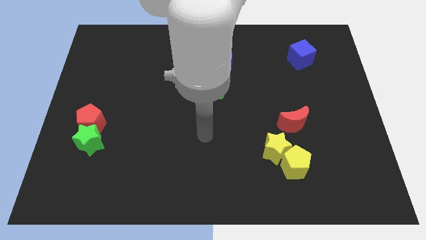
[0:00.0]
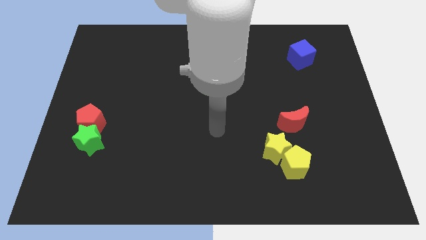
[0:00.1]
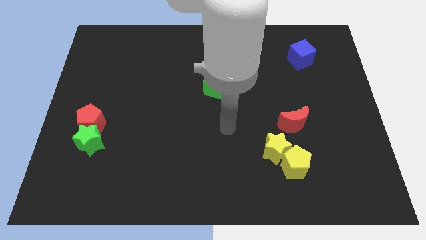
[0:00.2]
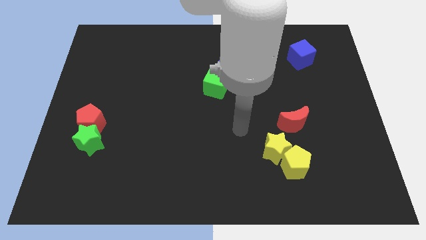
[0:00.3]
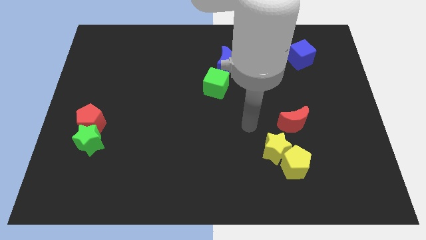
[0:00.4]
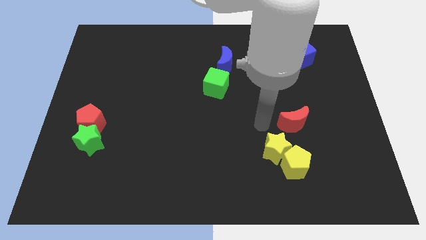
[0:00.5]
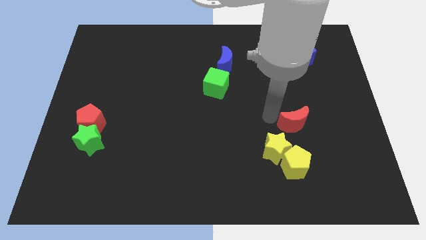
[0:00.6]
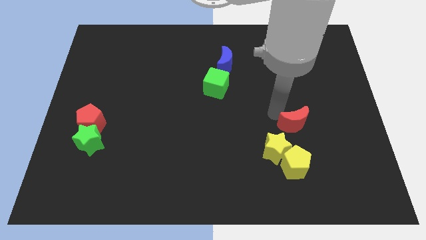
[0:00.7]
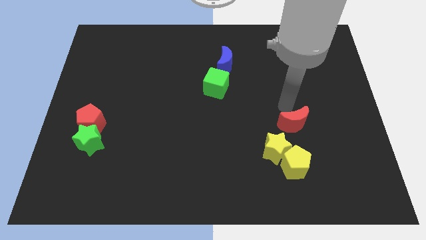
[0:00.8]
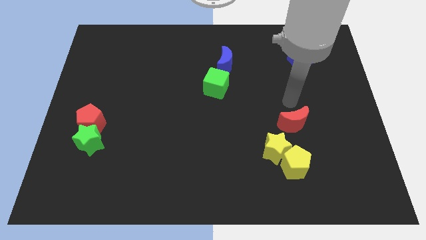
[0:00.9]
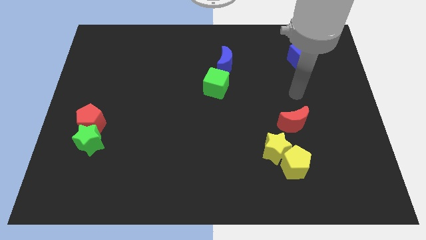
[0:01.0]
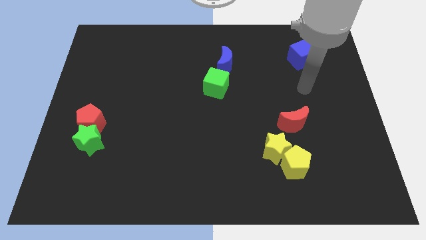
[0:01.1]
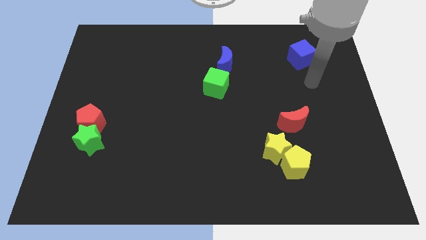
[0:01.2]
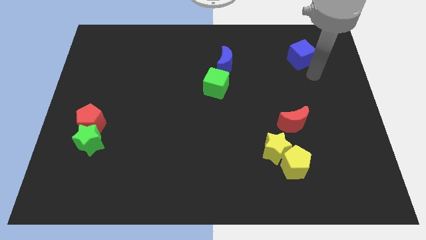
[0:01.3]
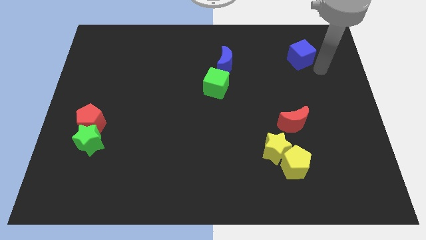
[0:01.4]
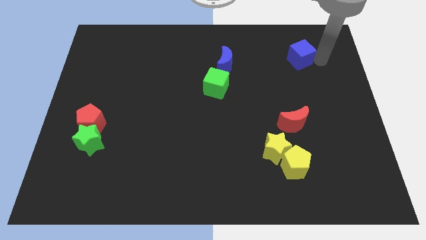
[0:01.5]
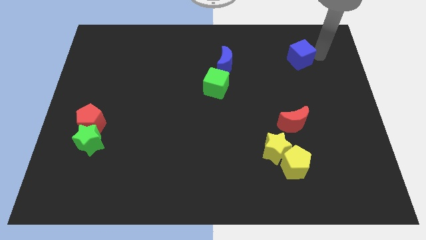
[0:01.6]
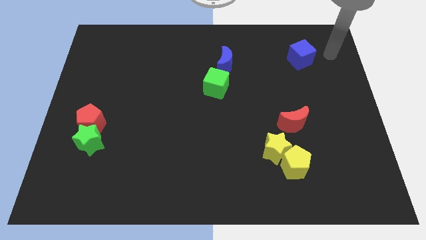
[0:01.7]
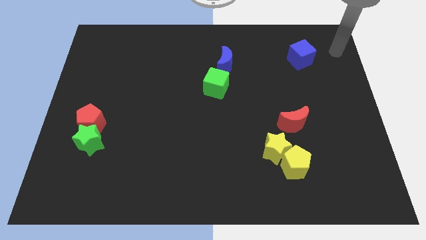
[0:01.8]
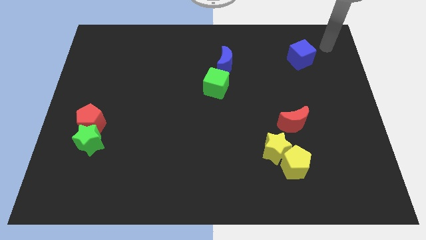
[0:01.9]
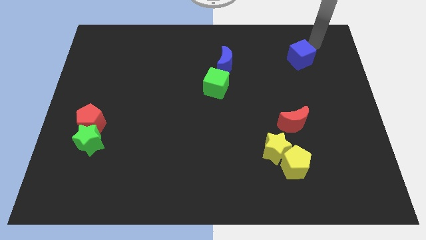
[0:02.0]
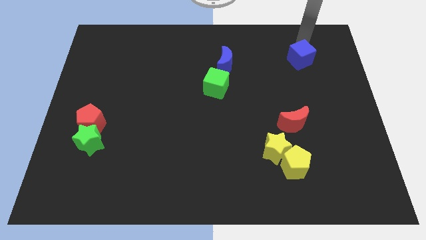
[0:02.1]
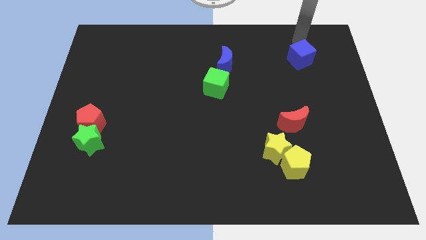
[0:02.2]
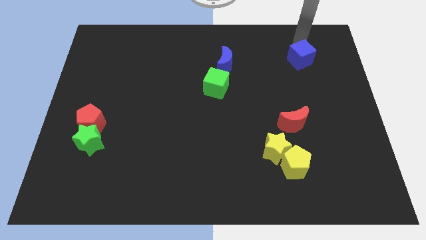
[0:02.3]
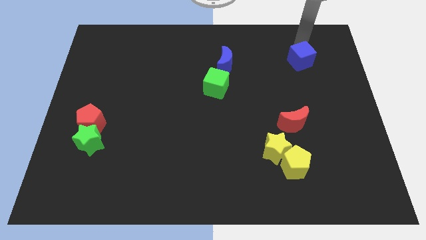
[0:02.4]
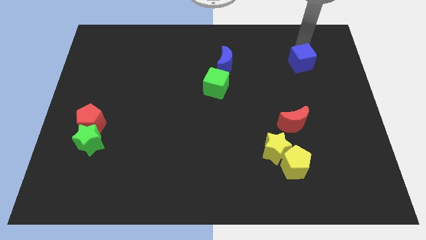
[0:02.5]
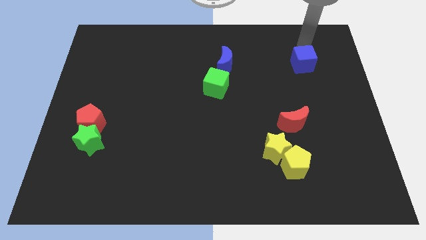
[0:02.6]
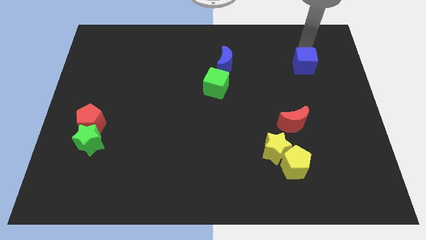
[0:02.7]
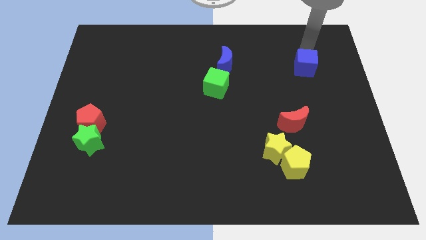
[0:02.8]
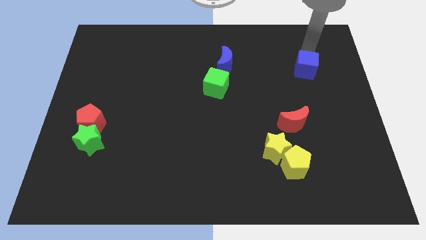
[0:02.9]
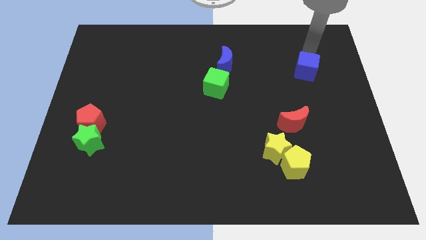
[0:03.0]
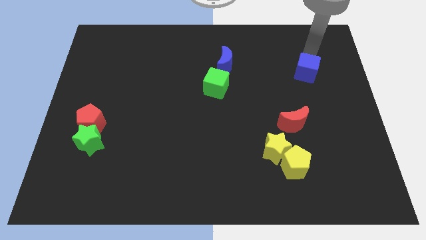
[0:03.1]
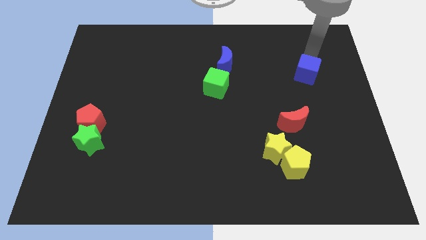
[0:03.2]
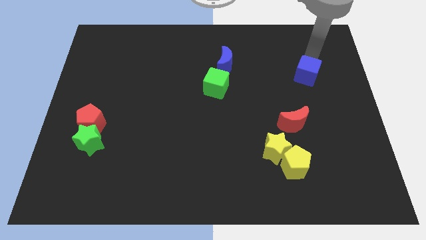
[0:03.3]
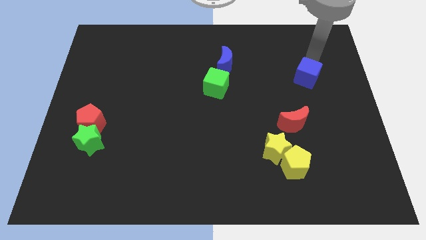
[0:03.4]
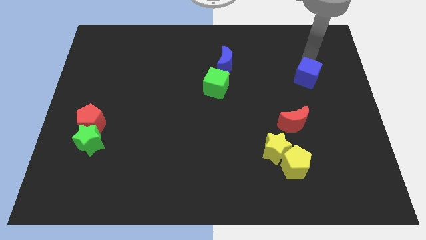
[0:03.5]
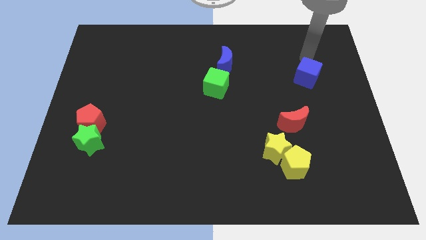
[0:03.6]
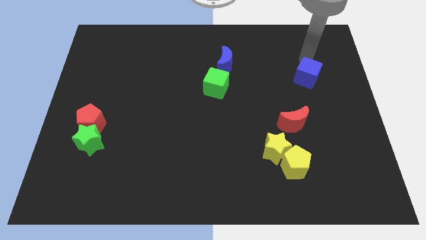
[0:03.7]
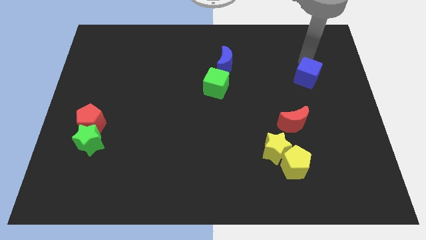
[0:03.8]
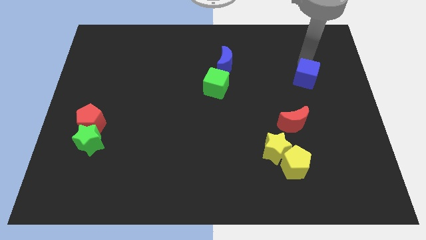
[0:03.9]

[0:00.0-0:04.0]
push the blue cube a little bit downwards

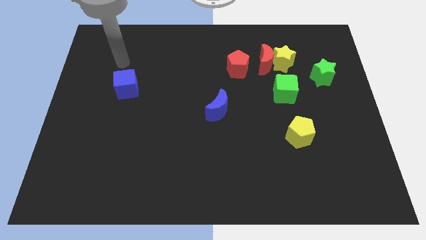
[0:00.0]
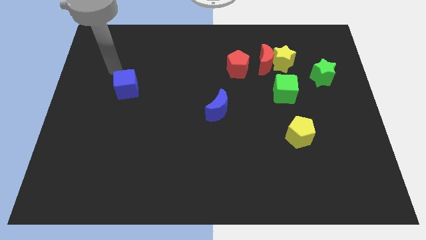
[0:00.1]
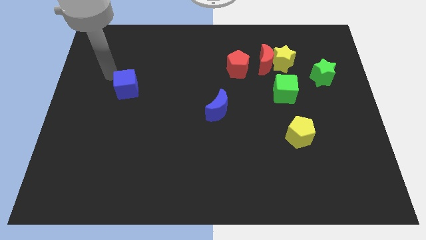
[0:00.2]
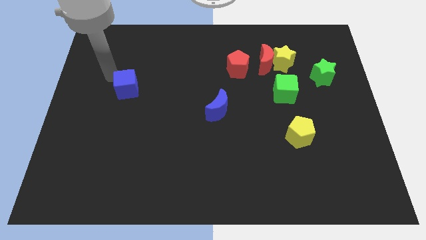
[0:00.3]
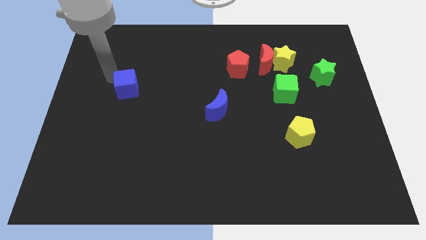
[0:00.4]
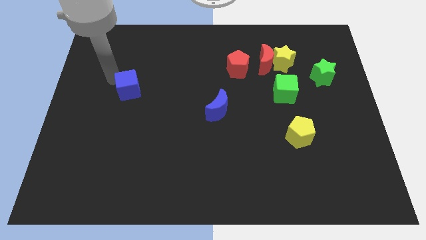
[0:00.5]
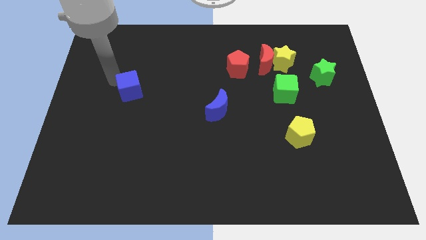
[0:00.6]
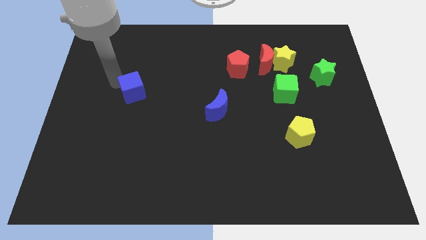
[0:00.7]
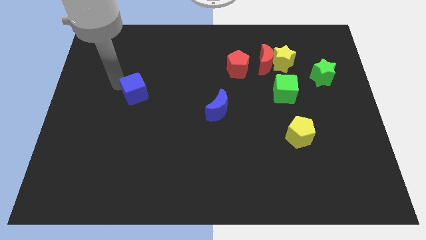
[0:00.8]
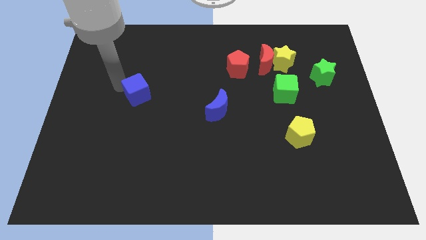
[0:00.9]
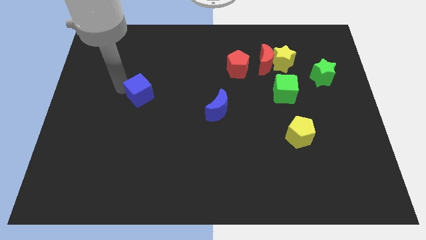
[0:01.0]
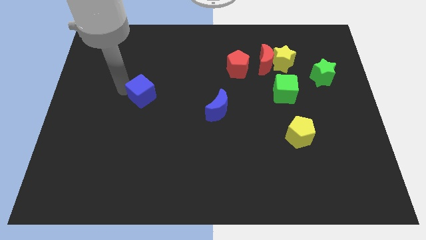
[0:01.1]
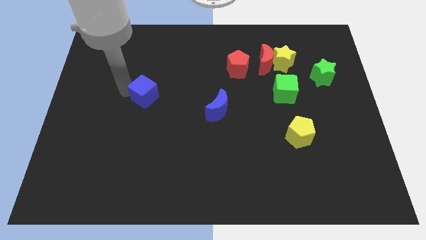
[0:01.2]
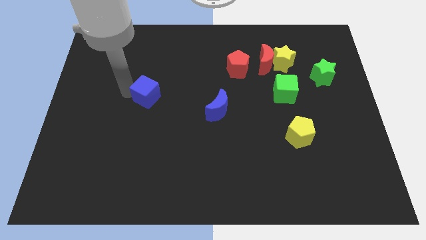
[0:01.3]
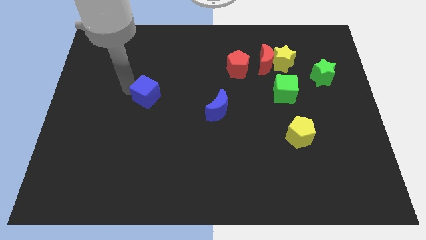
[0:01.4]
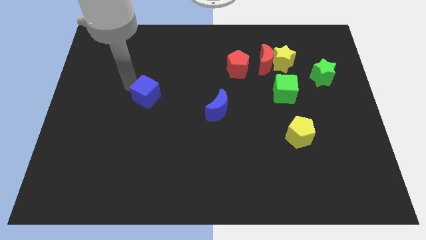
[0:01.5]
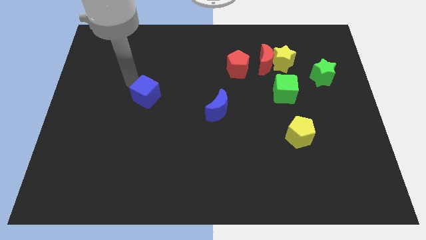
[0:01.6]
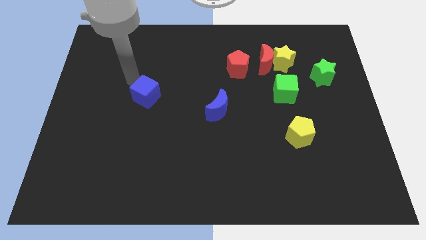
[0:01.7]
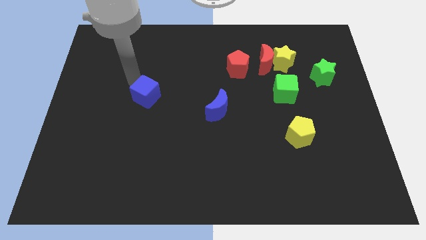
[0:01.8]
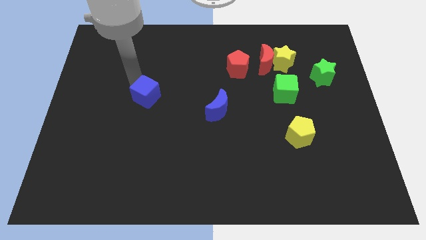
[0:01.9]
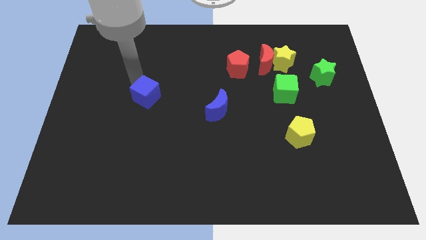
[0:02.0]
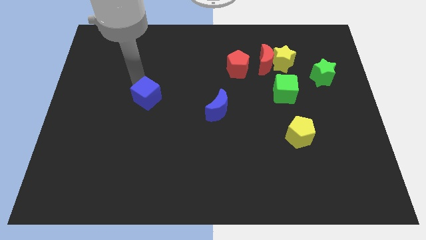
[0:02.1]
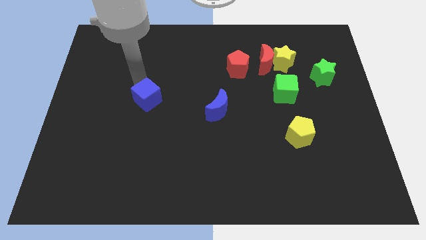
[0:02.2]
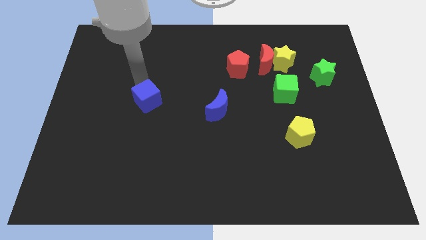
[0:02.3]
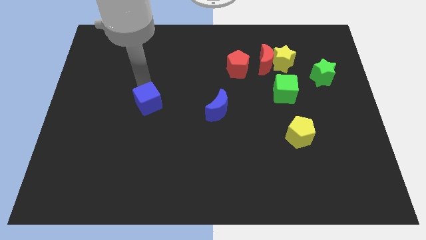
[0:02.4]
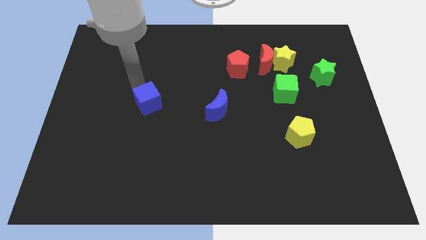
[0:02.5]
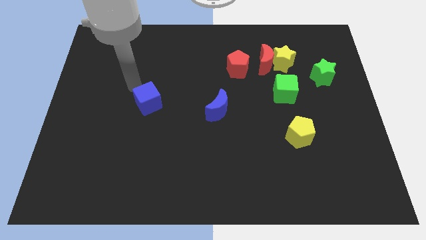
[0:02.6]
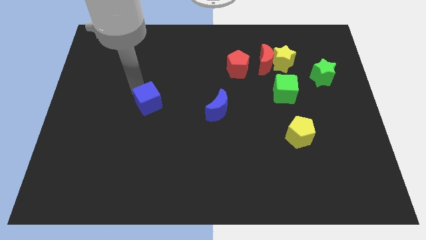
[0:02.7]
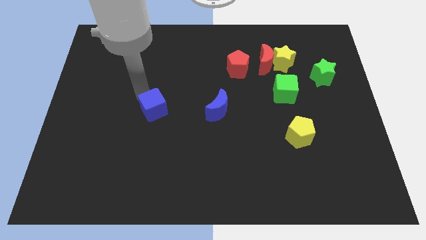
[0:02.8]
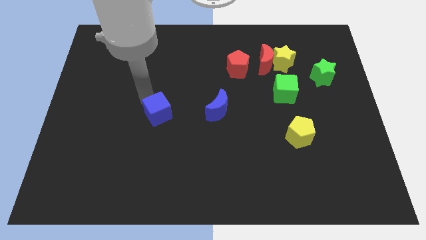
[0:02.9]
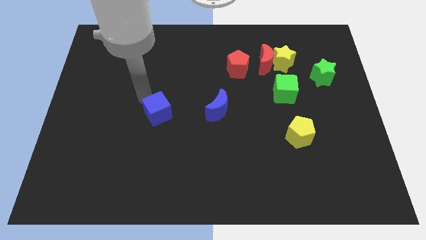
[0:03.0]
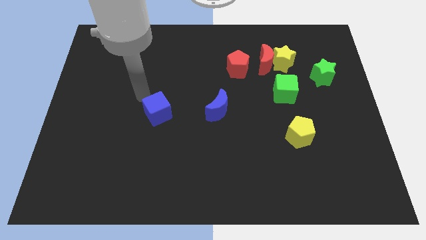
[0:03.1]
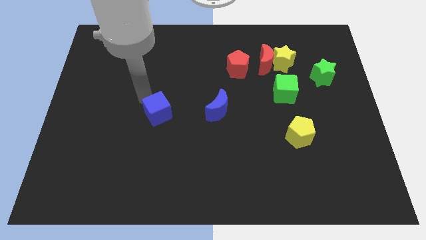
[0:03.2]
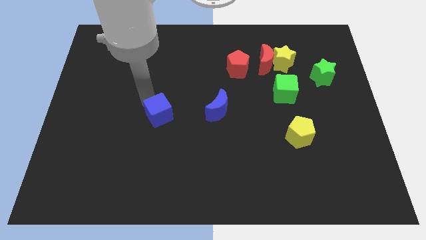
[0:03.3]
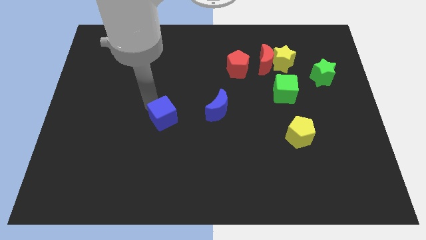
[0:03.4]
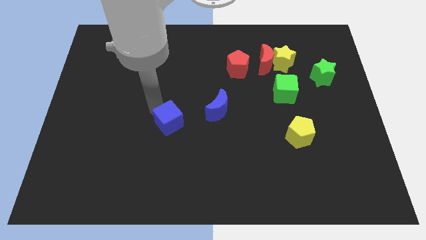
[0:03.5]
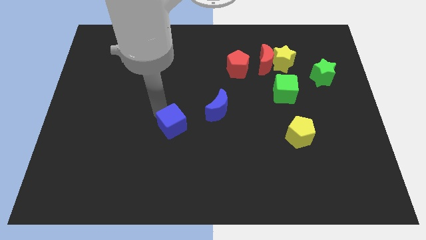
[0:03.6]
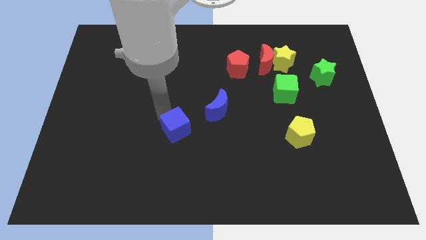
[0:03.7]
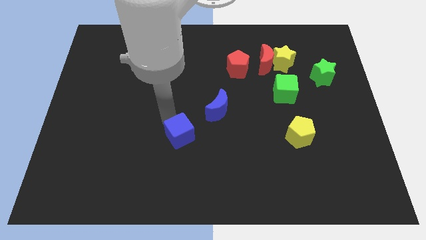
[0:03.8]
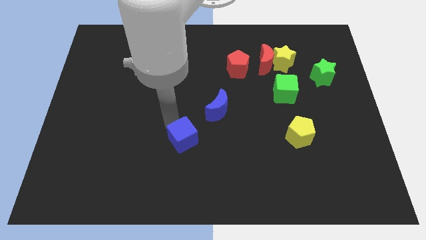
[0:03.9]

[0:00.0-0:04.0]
slide the blue cube downwards and then right
